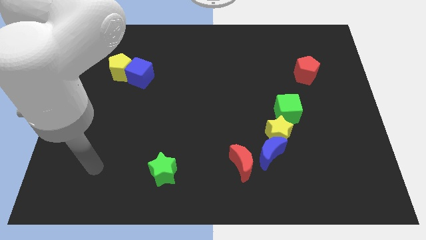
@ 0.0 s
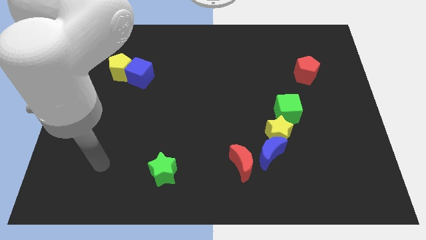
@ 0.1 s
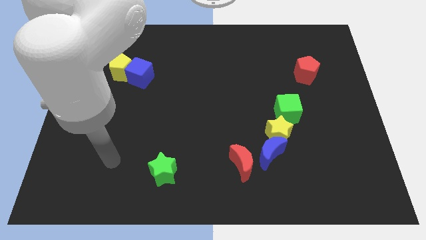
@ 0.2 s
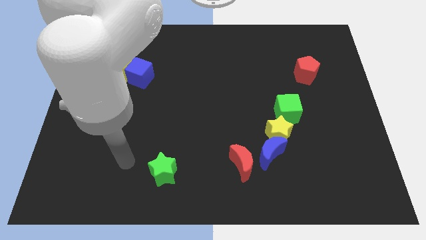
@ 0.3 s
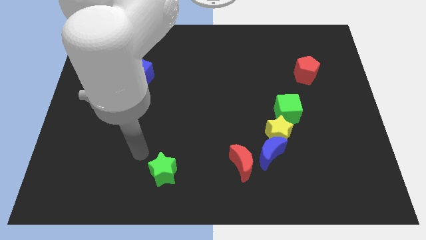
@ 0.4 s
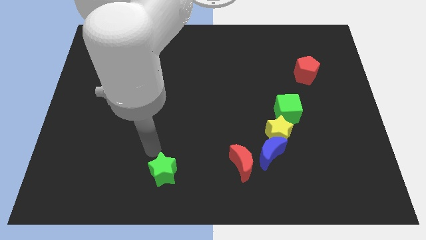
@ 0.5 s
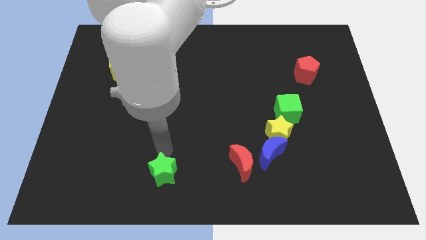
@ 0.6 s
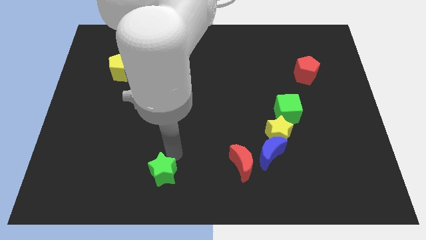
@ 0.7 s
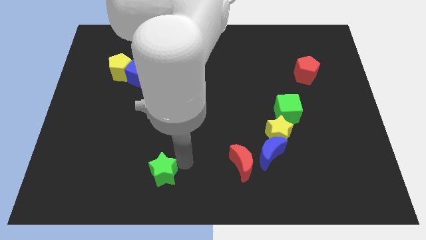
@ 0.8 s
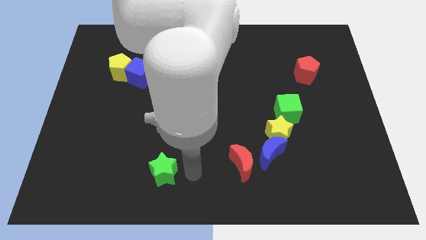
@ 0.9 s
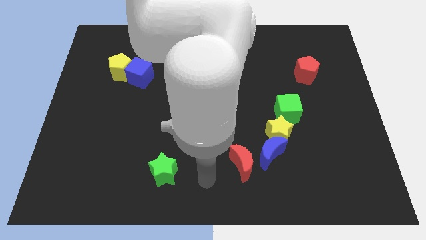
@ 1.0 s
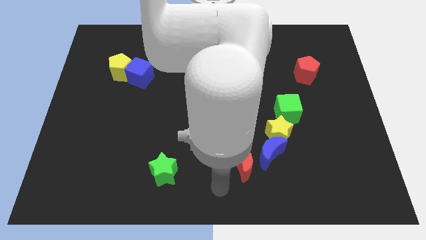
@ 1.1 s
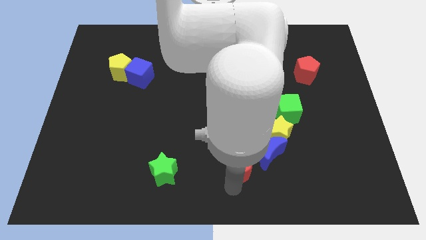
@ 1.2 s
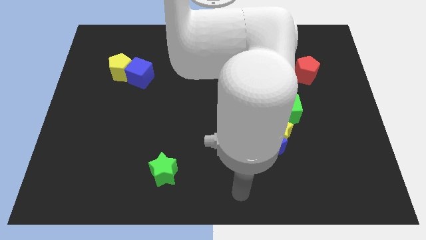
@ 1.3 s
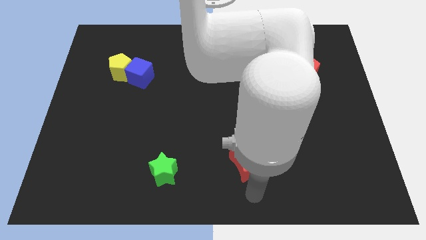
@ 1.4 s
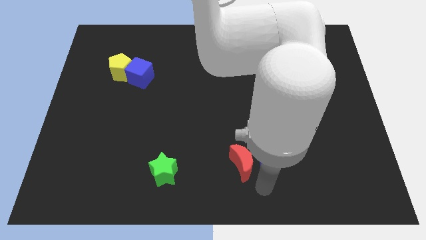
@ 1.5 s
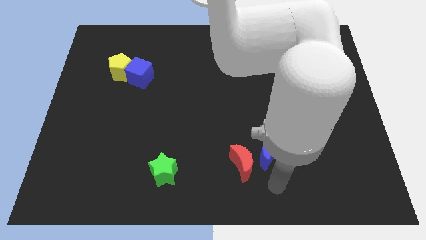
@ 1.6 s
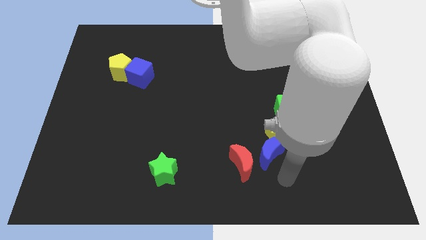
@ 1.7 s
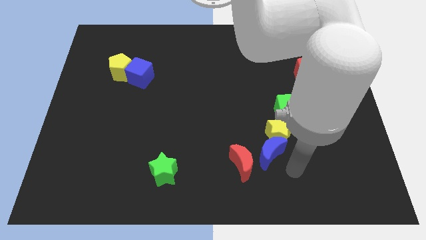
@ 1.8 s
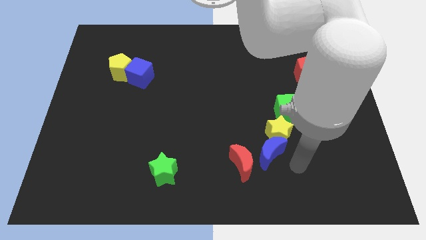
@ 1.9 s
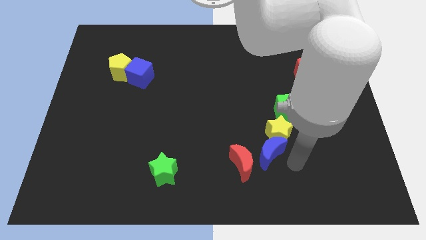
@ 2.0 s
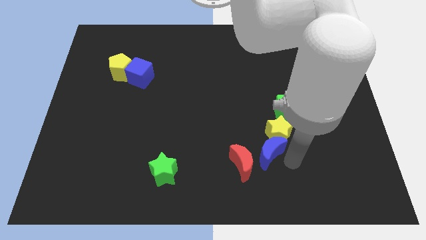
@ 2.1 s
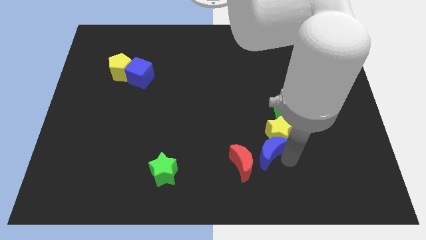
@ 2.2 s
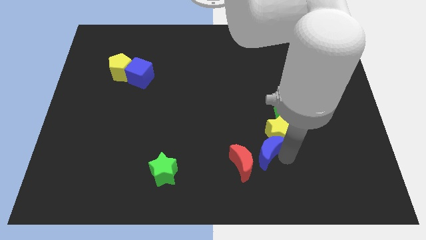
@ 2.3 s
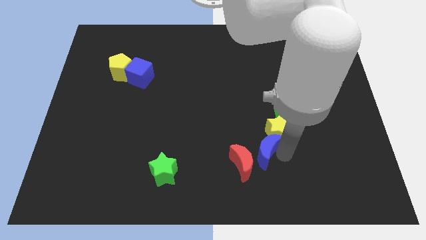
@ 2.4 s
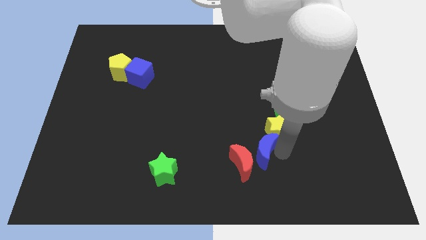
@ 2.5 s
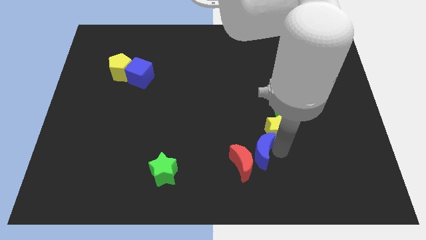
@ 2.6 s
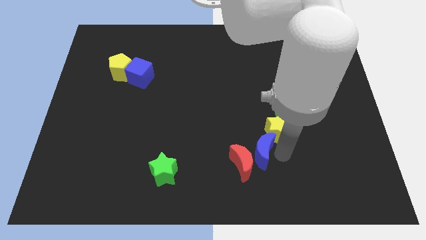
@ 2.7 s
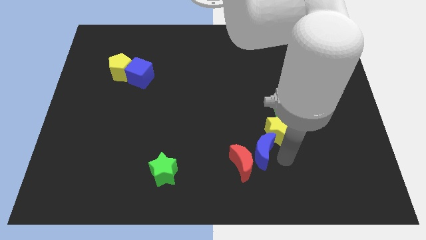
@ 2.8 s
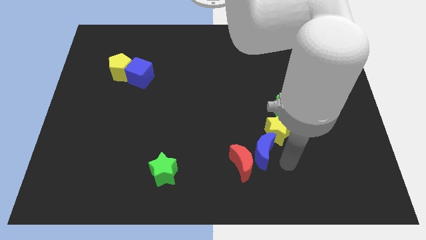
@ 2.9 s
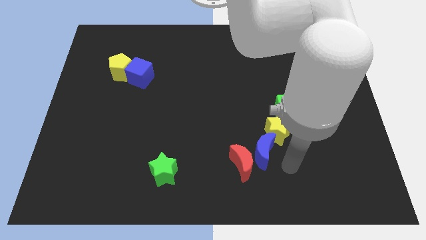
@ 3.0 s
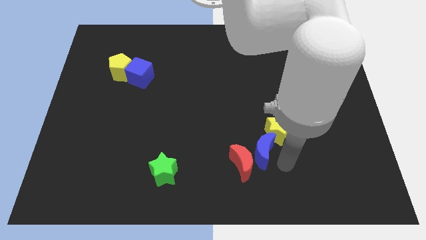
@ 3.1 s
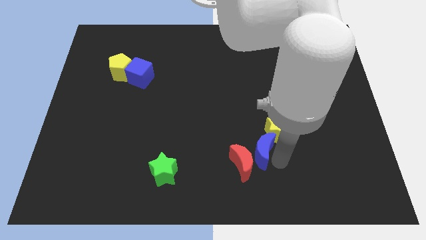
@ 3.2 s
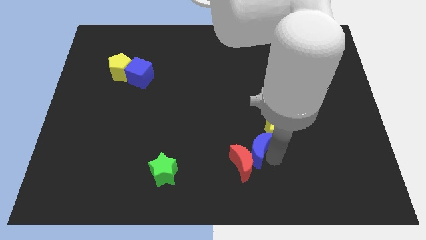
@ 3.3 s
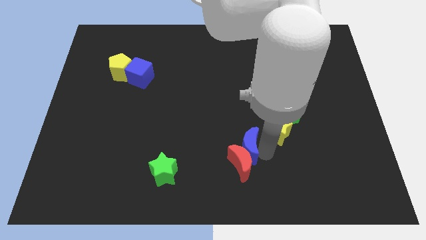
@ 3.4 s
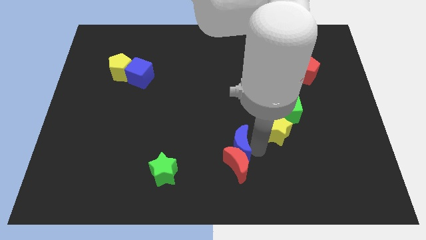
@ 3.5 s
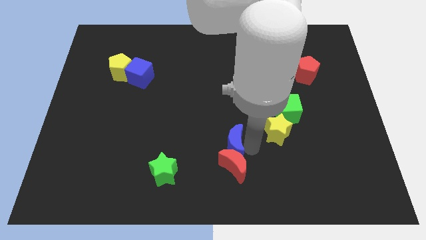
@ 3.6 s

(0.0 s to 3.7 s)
move the blue moon left slightly

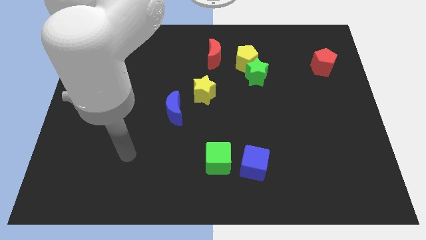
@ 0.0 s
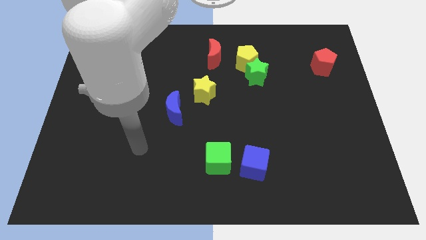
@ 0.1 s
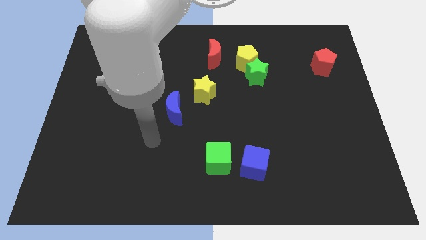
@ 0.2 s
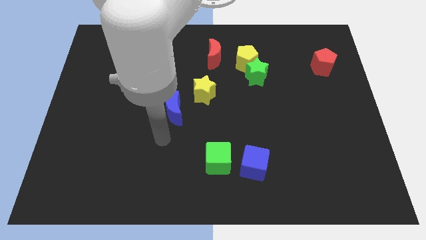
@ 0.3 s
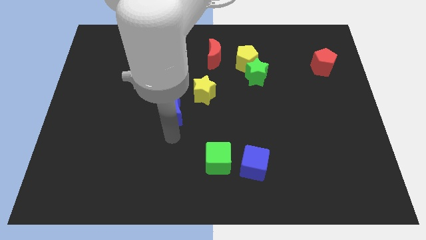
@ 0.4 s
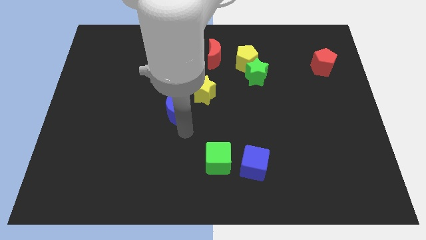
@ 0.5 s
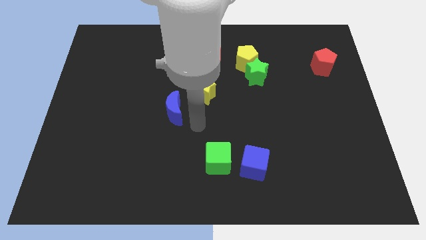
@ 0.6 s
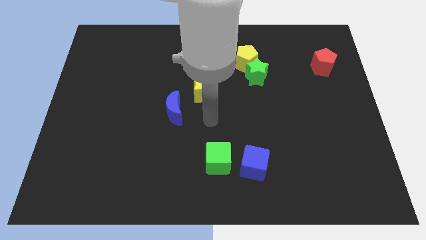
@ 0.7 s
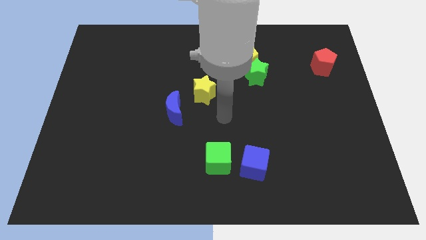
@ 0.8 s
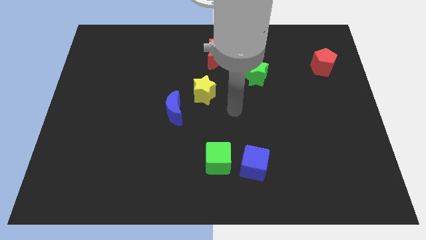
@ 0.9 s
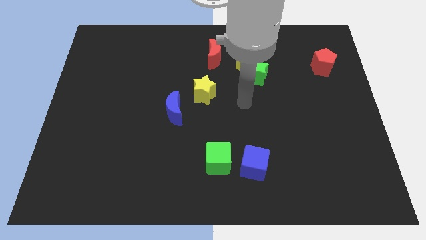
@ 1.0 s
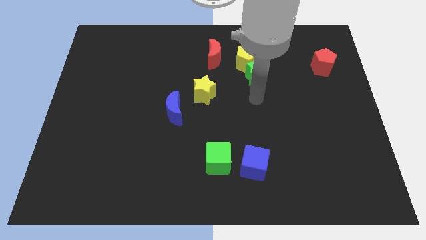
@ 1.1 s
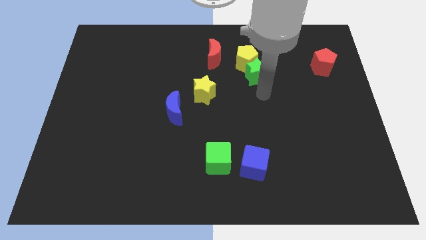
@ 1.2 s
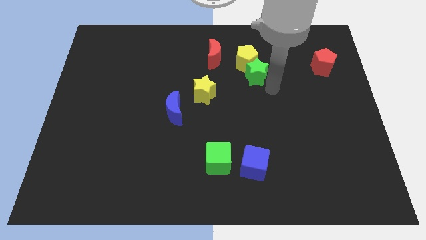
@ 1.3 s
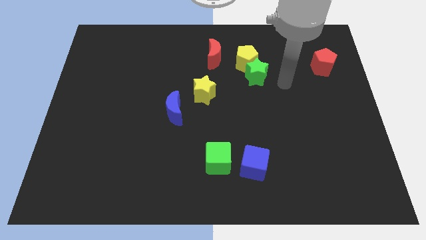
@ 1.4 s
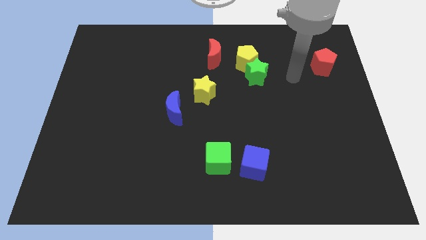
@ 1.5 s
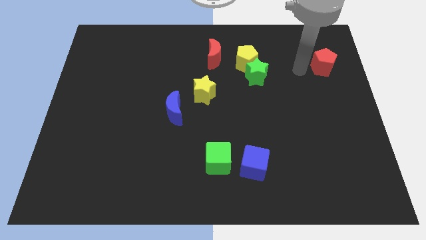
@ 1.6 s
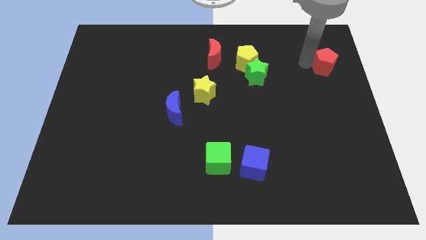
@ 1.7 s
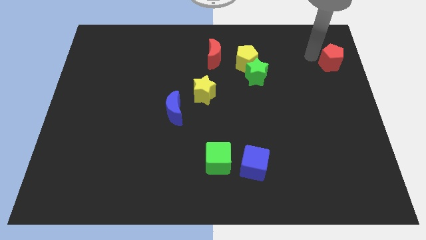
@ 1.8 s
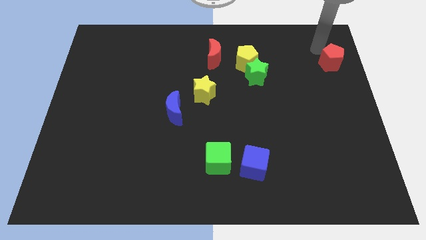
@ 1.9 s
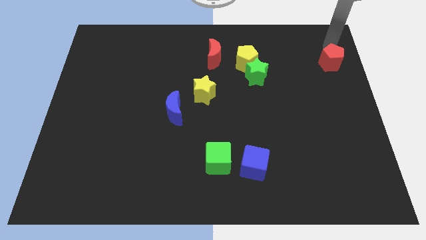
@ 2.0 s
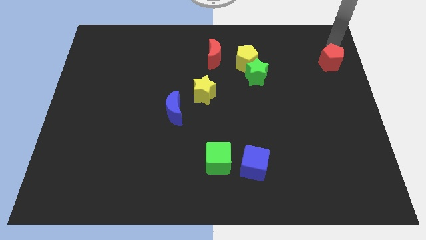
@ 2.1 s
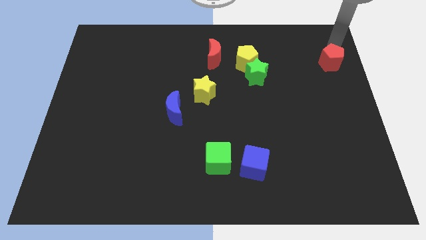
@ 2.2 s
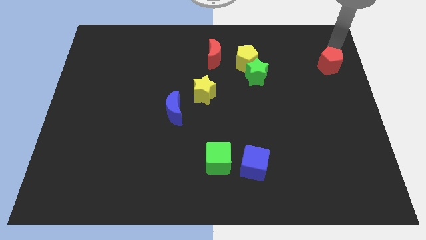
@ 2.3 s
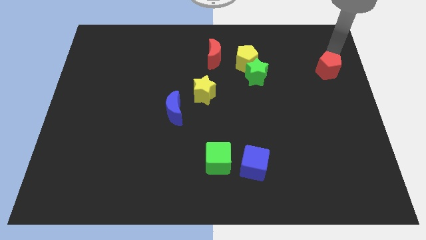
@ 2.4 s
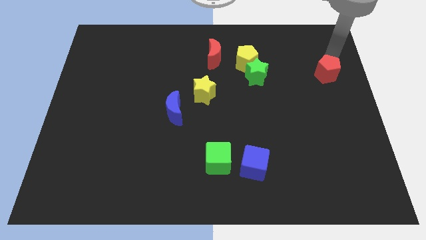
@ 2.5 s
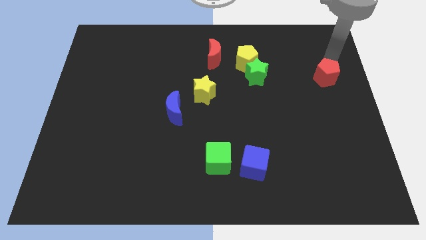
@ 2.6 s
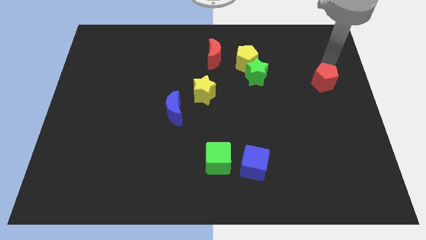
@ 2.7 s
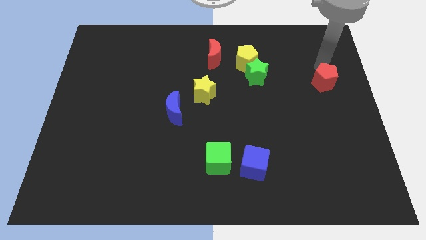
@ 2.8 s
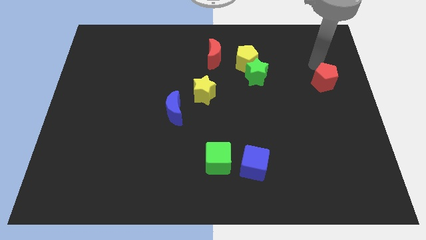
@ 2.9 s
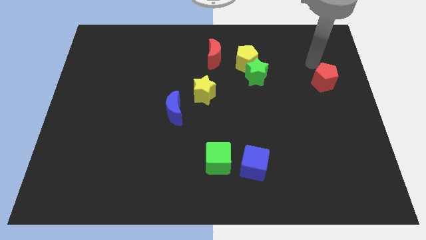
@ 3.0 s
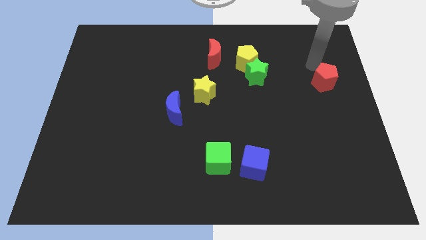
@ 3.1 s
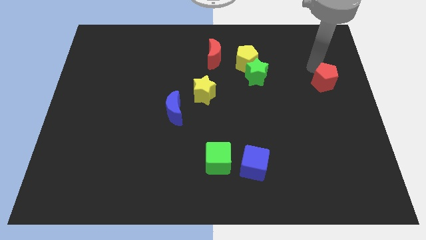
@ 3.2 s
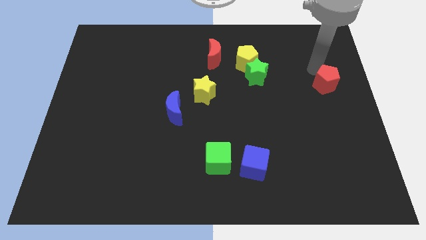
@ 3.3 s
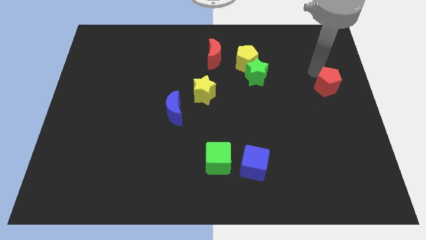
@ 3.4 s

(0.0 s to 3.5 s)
slightly move the red pentagon downwards

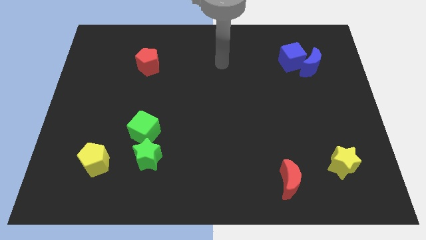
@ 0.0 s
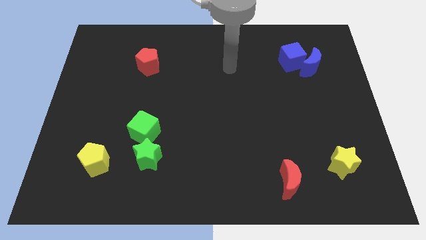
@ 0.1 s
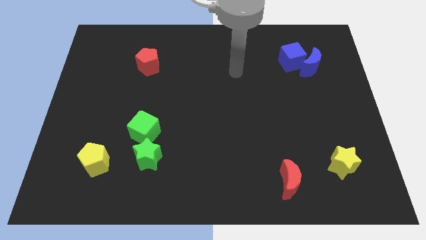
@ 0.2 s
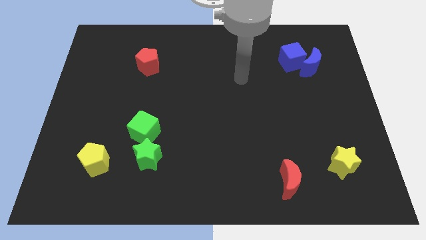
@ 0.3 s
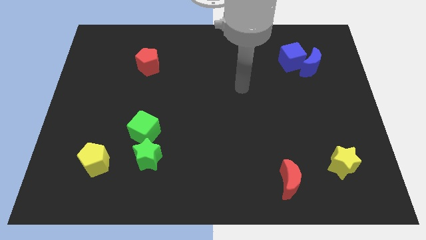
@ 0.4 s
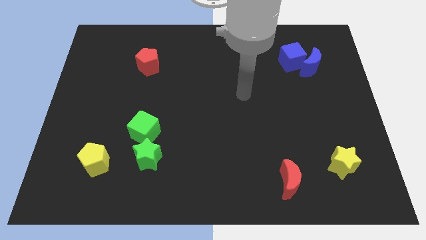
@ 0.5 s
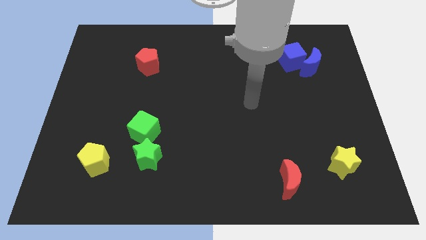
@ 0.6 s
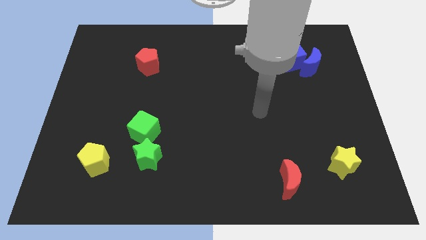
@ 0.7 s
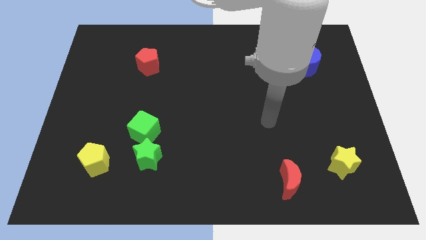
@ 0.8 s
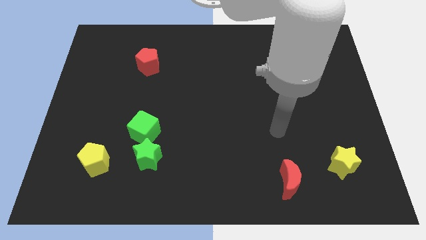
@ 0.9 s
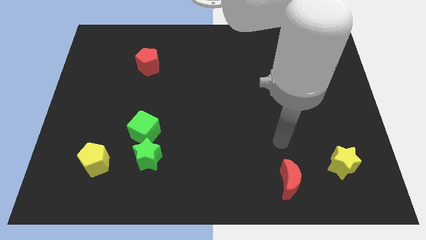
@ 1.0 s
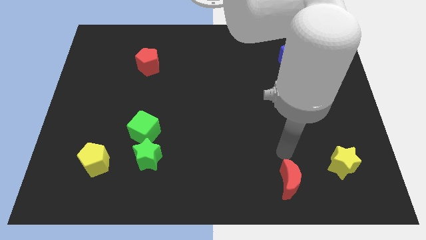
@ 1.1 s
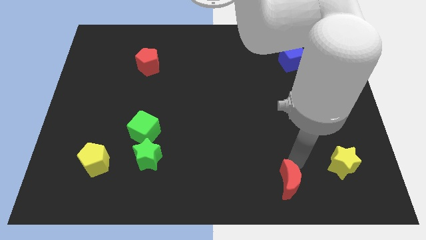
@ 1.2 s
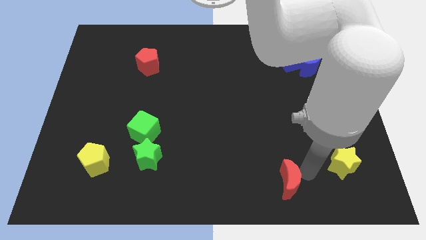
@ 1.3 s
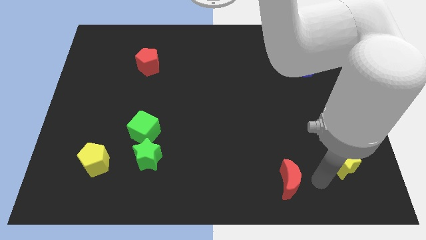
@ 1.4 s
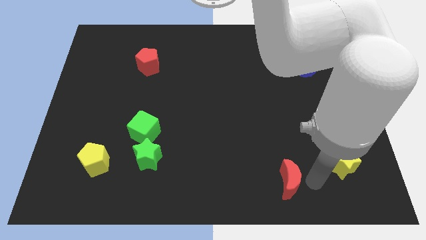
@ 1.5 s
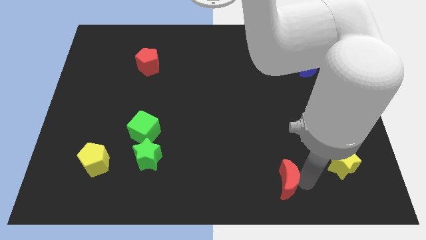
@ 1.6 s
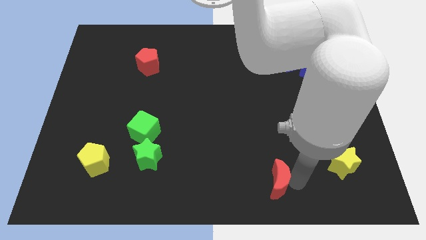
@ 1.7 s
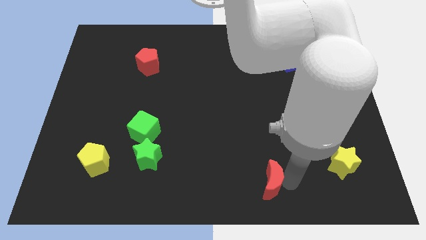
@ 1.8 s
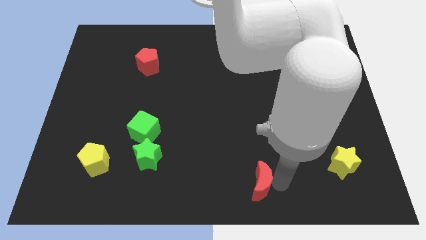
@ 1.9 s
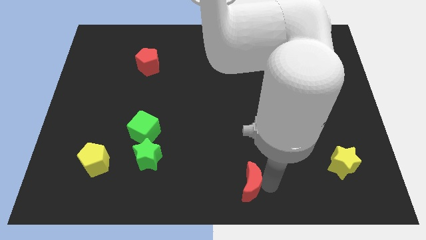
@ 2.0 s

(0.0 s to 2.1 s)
move the red moon slightly to the left
